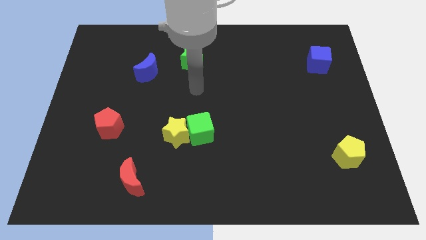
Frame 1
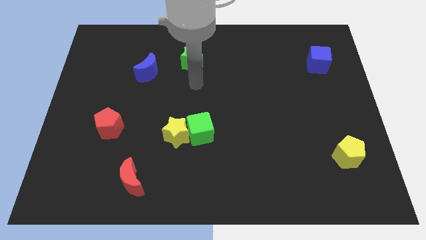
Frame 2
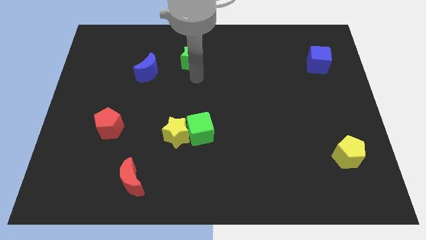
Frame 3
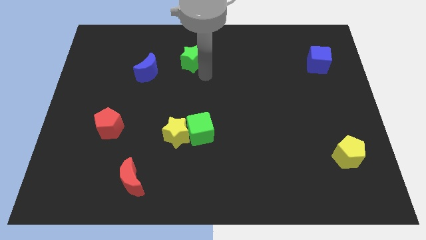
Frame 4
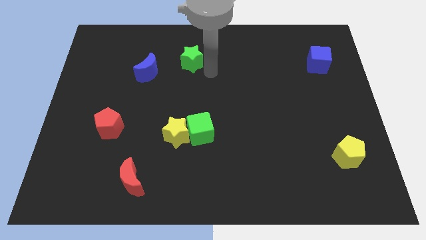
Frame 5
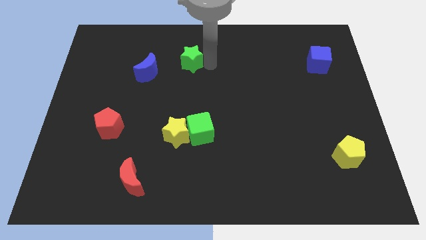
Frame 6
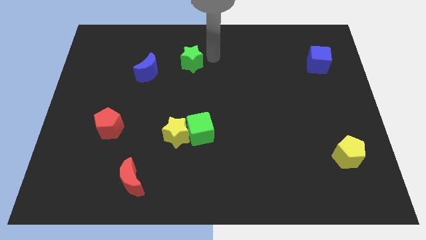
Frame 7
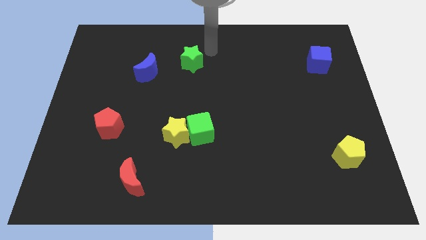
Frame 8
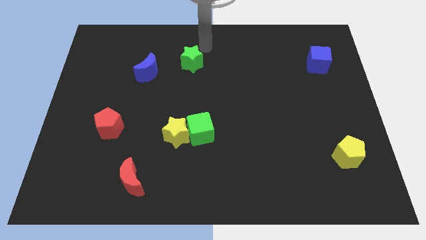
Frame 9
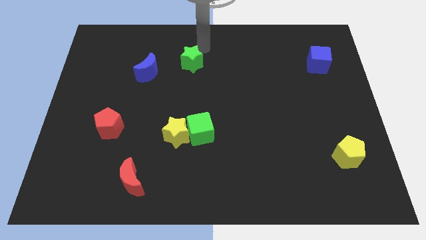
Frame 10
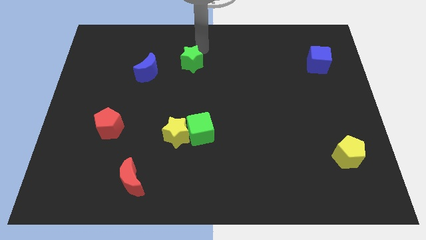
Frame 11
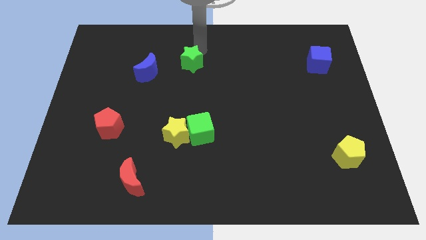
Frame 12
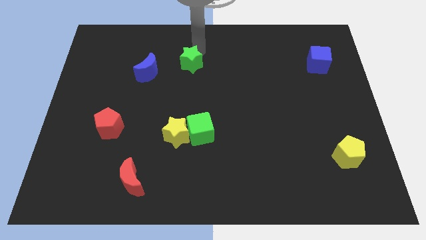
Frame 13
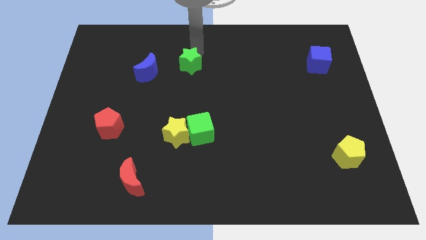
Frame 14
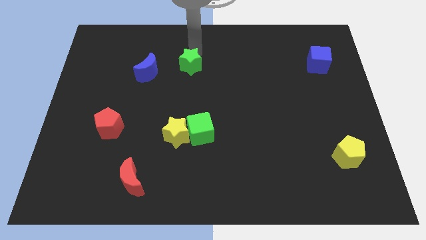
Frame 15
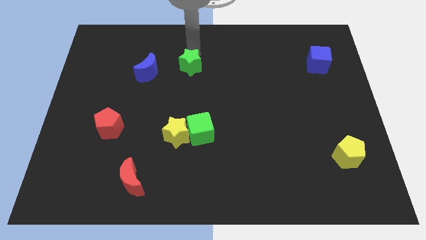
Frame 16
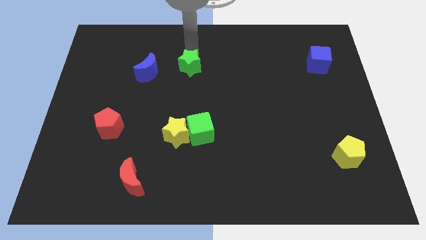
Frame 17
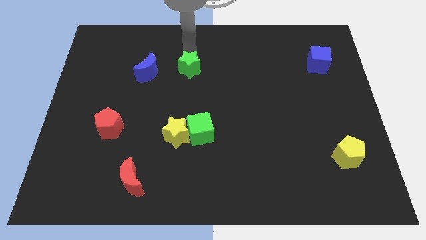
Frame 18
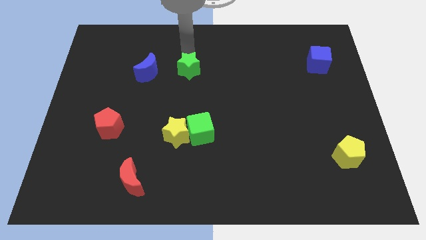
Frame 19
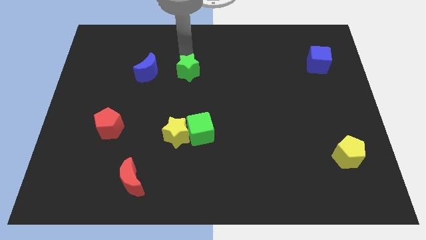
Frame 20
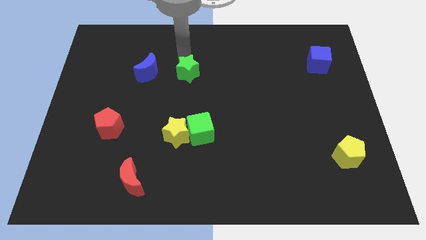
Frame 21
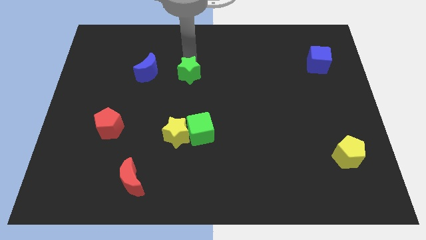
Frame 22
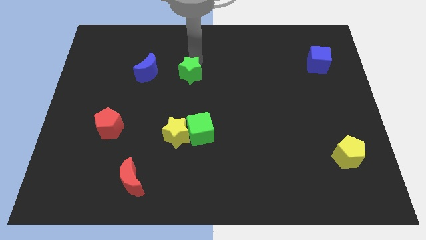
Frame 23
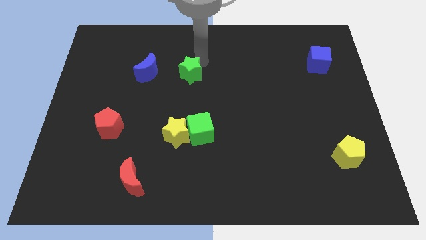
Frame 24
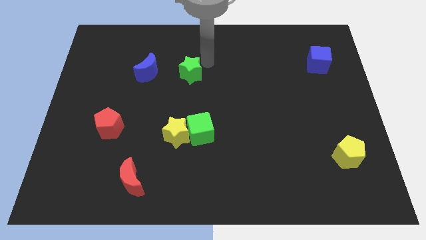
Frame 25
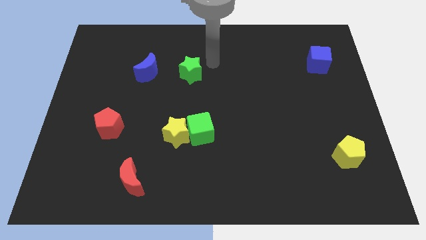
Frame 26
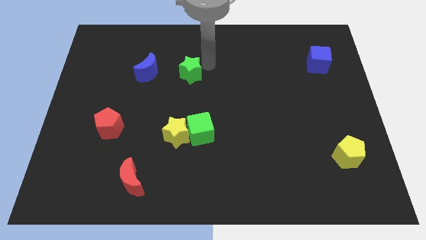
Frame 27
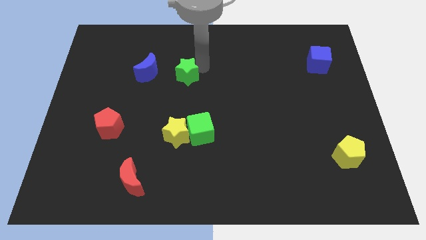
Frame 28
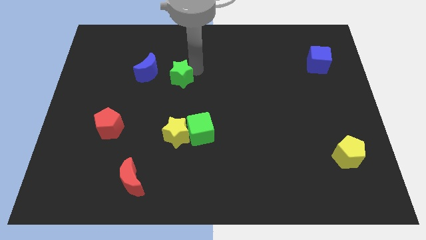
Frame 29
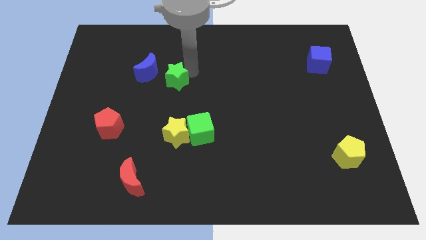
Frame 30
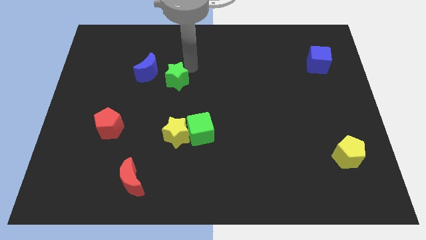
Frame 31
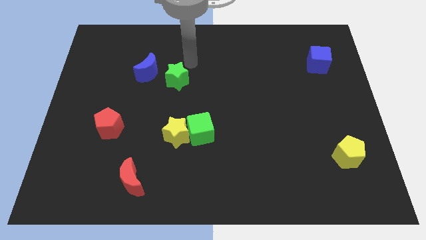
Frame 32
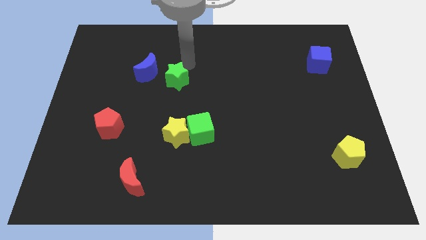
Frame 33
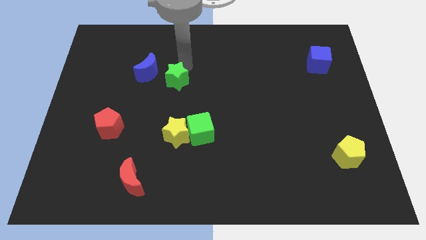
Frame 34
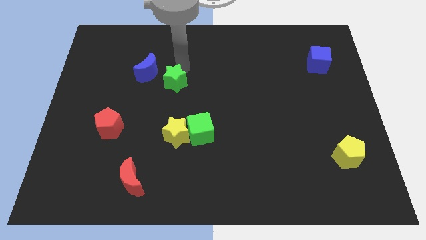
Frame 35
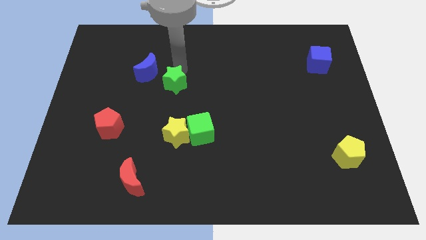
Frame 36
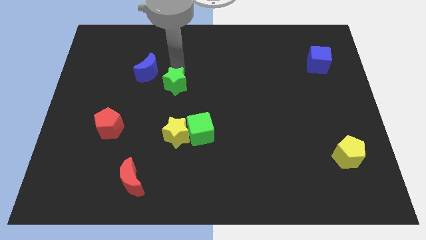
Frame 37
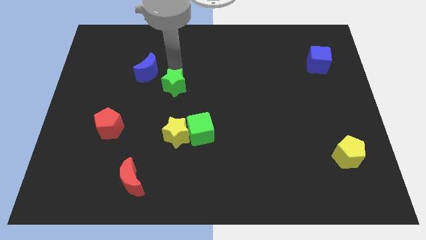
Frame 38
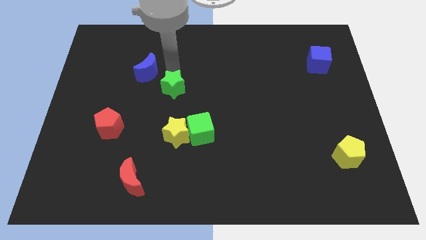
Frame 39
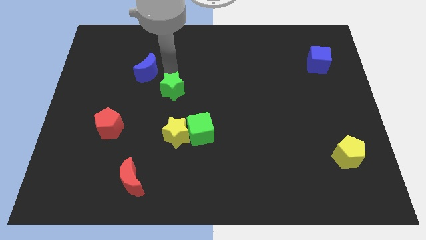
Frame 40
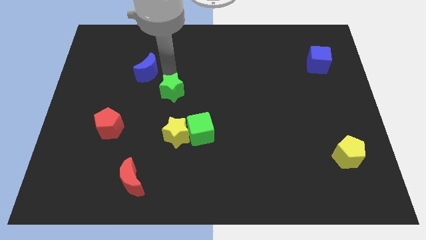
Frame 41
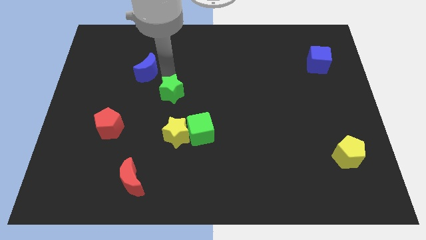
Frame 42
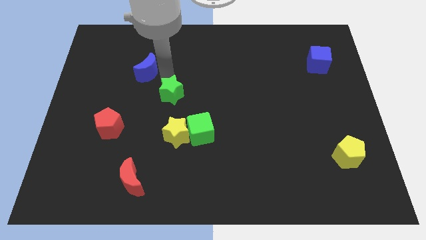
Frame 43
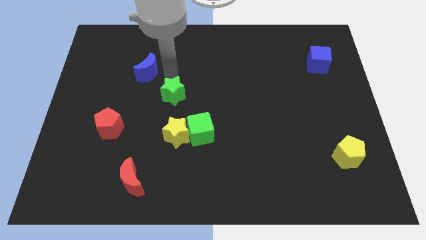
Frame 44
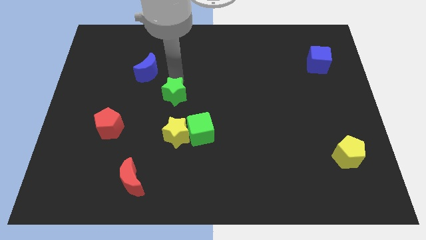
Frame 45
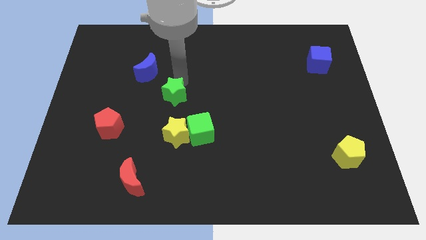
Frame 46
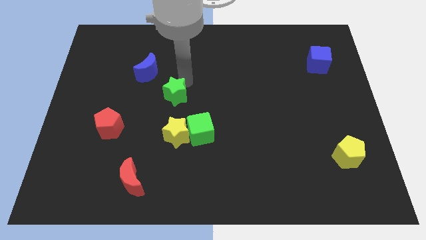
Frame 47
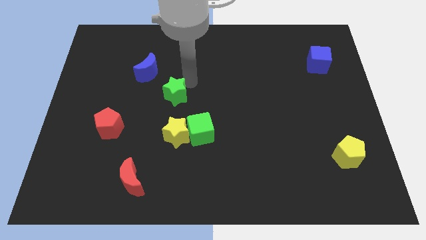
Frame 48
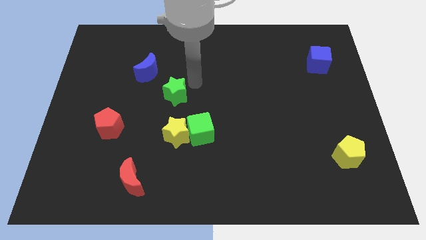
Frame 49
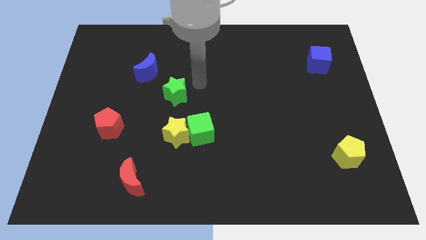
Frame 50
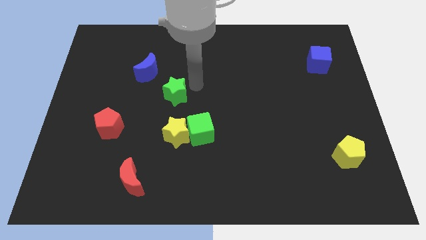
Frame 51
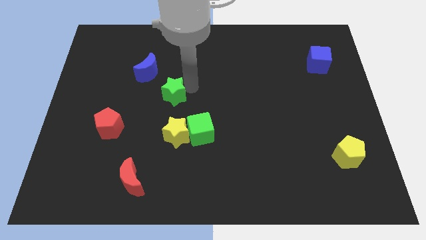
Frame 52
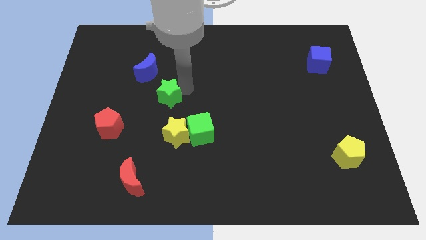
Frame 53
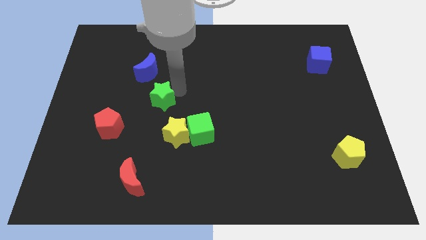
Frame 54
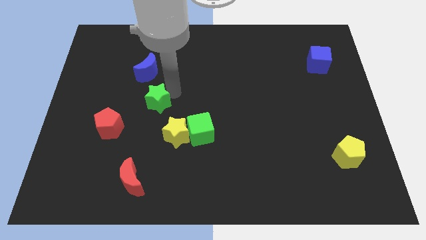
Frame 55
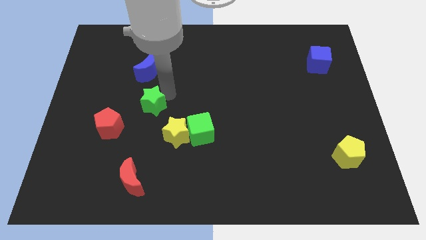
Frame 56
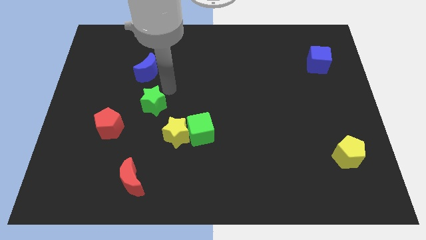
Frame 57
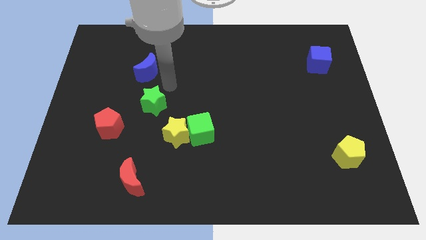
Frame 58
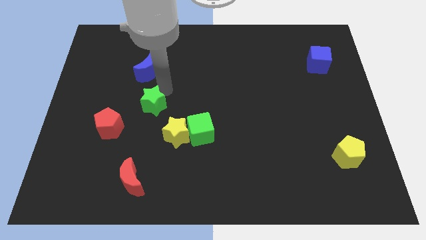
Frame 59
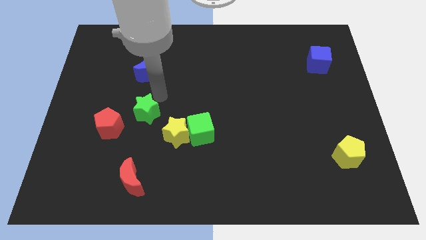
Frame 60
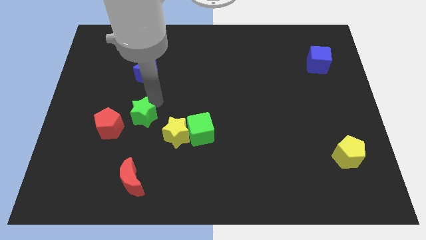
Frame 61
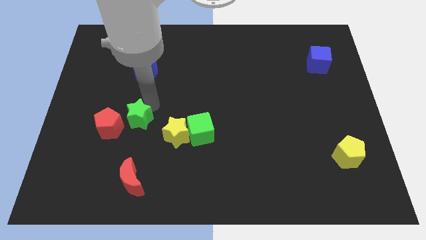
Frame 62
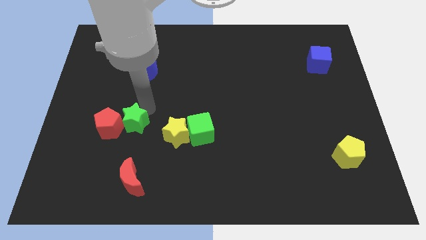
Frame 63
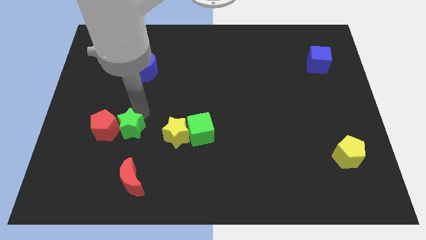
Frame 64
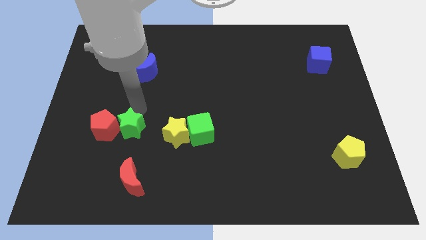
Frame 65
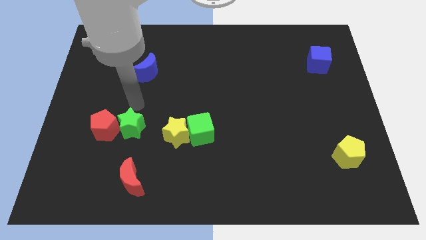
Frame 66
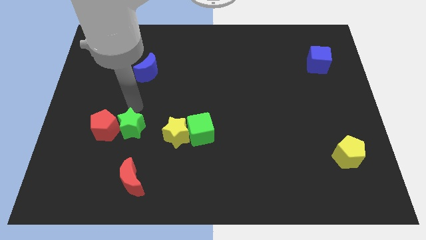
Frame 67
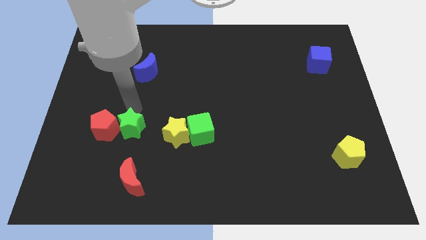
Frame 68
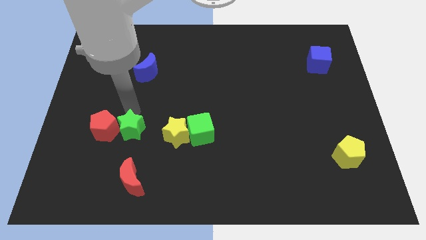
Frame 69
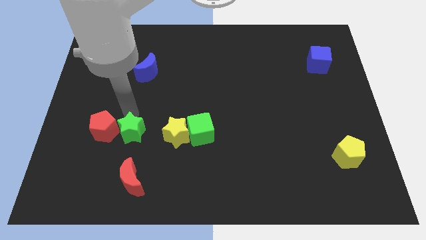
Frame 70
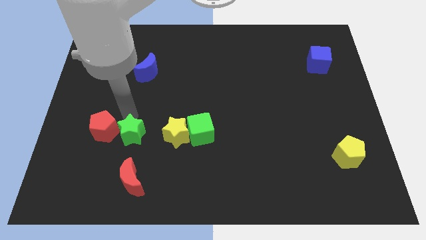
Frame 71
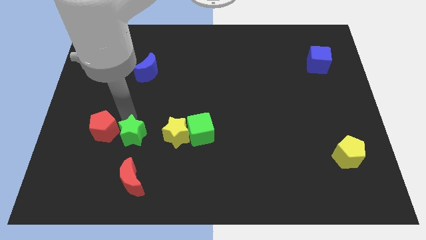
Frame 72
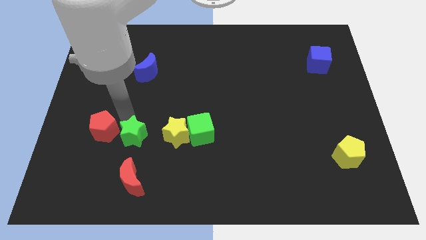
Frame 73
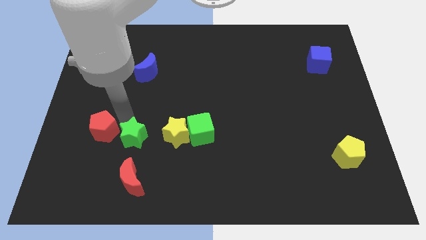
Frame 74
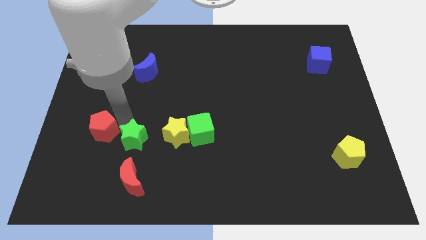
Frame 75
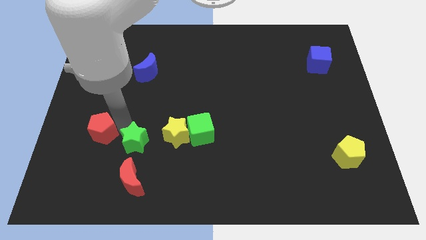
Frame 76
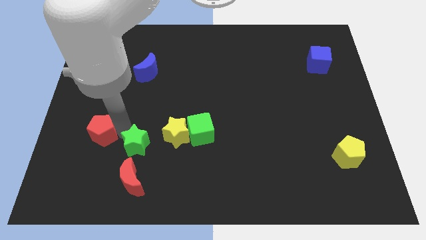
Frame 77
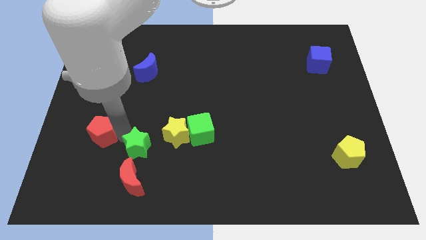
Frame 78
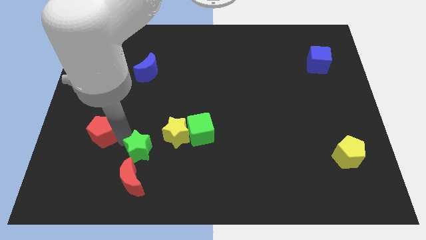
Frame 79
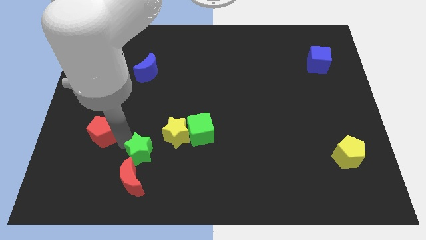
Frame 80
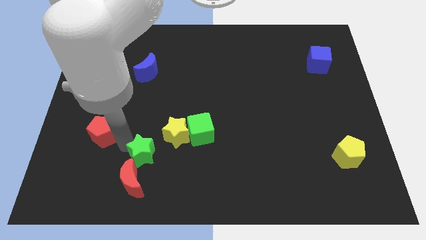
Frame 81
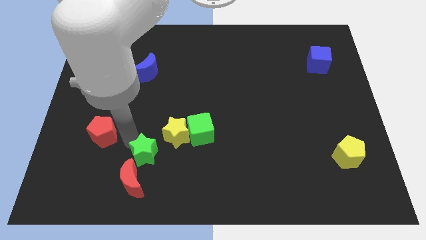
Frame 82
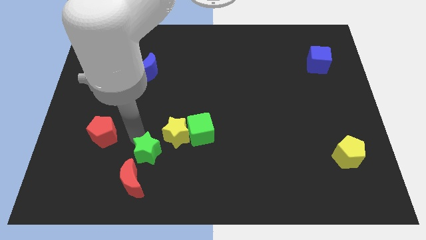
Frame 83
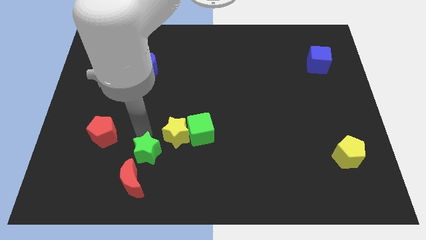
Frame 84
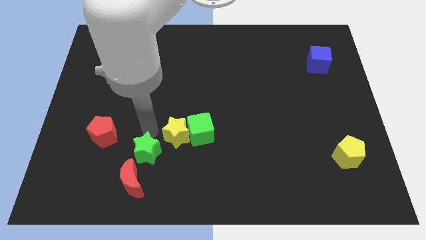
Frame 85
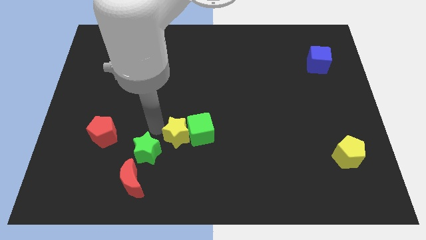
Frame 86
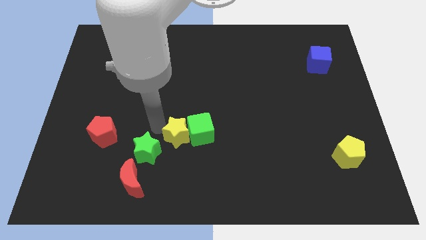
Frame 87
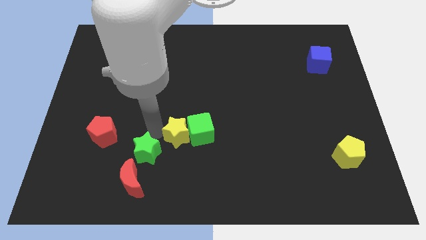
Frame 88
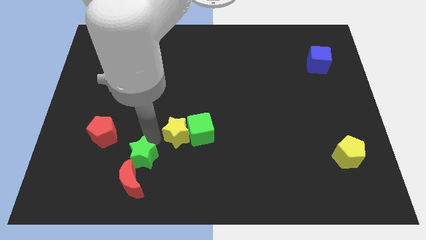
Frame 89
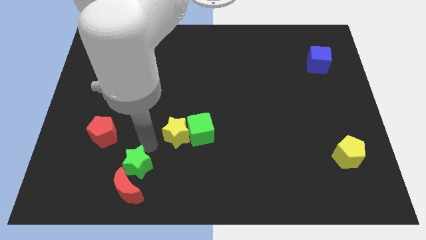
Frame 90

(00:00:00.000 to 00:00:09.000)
slide the green star next to the red moon
